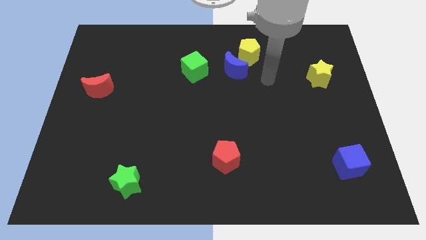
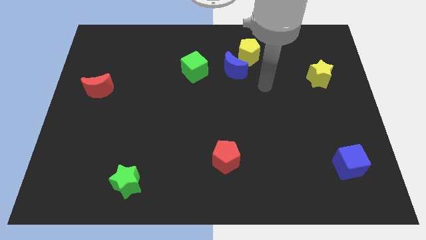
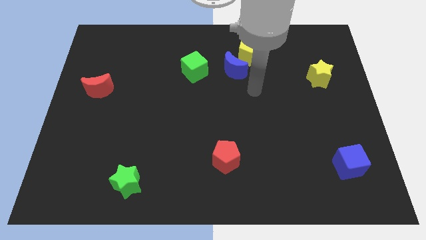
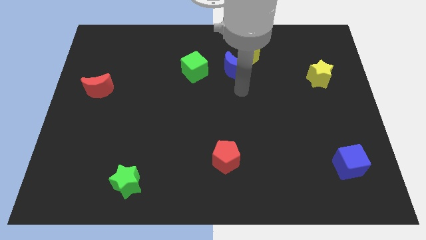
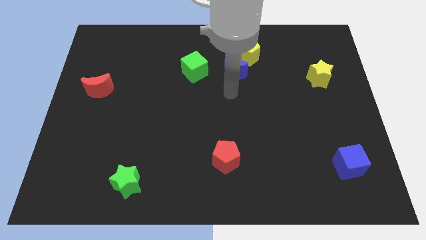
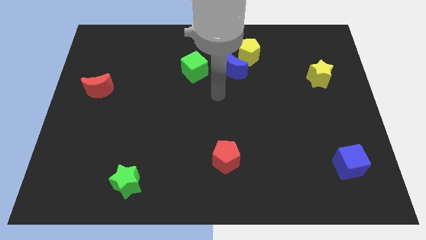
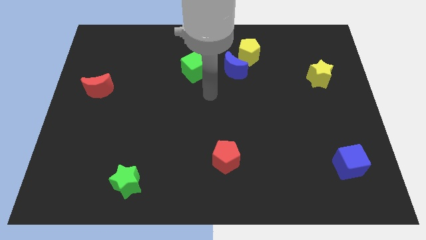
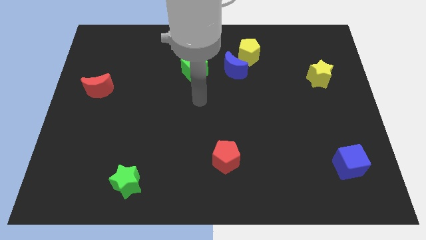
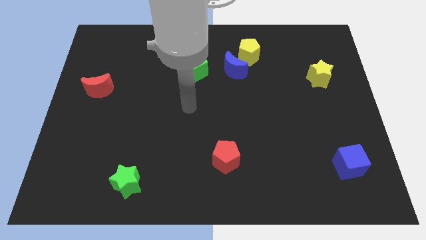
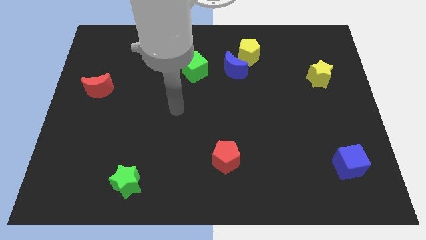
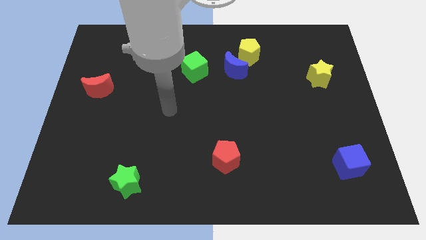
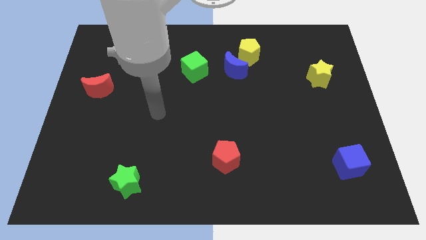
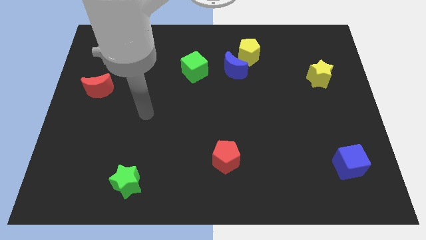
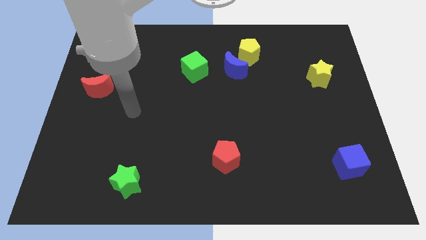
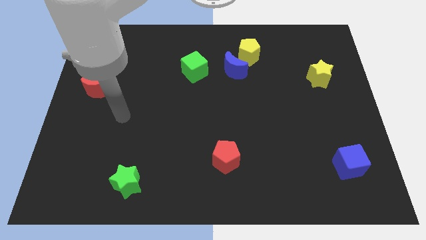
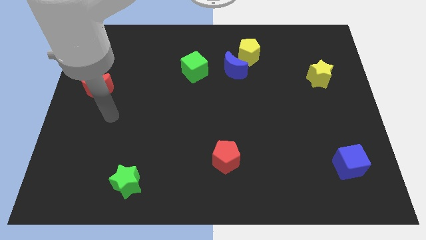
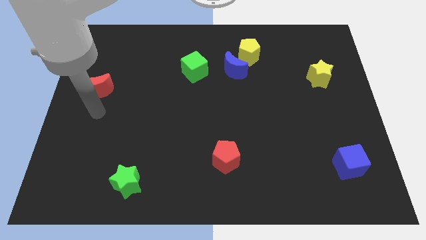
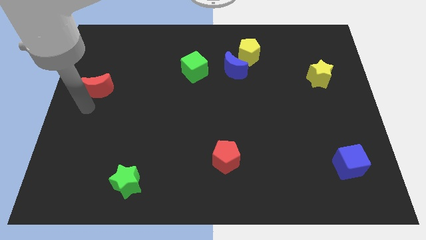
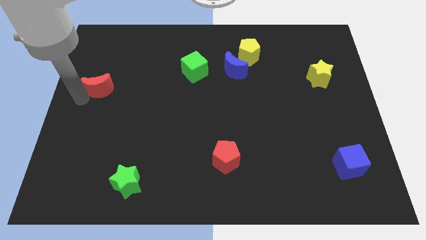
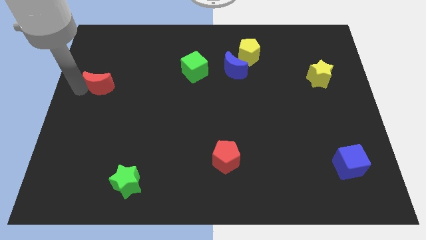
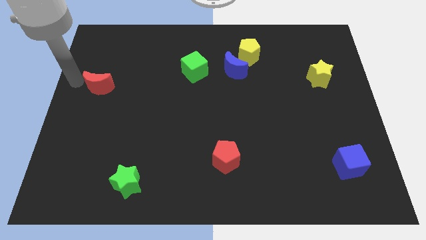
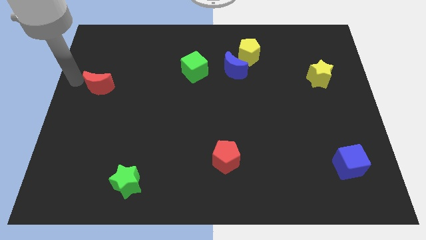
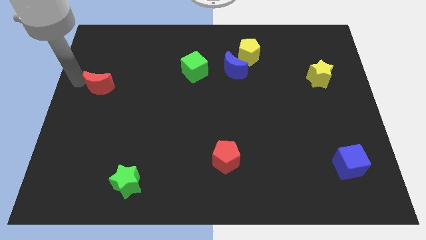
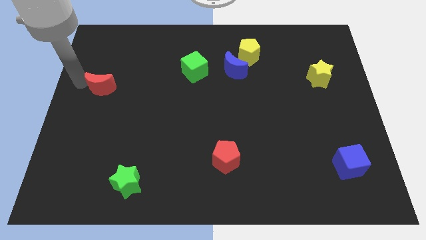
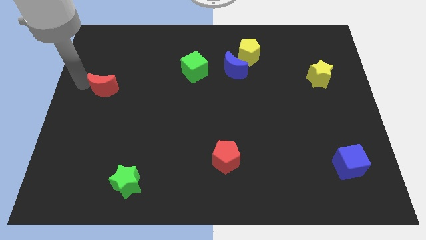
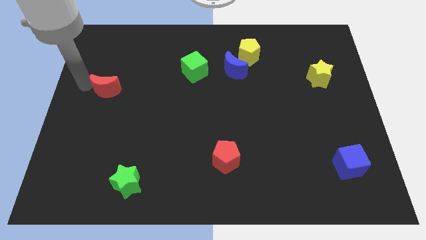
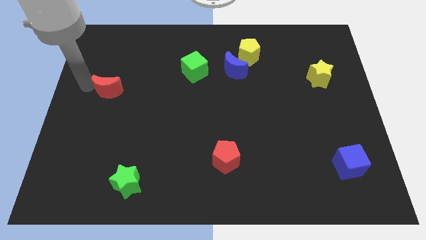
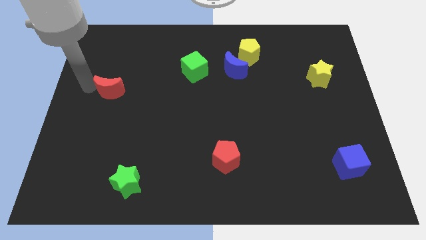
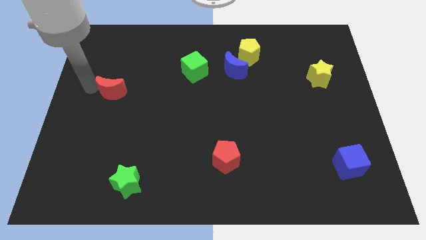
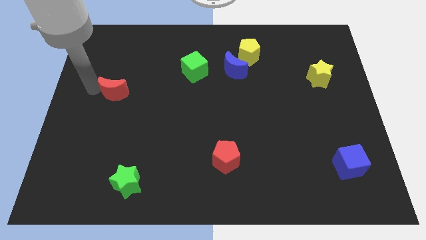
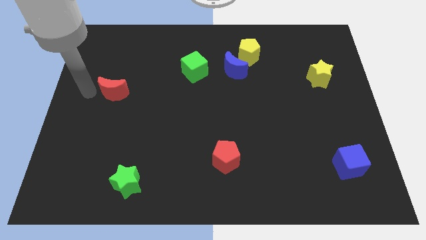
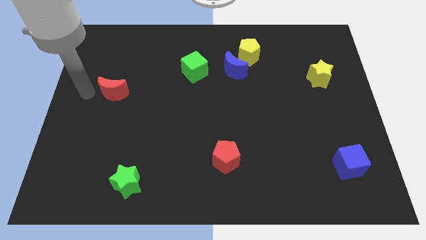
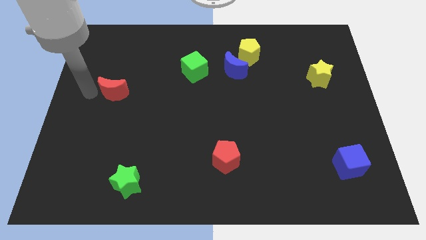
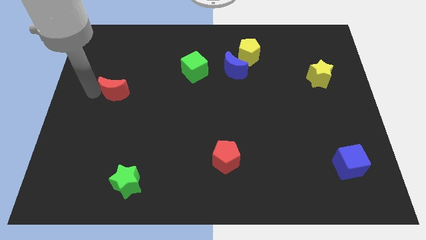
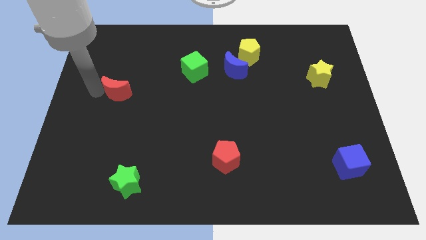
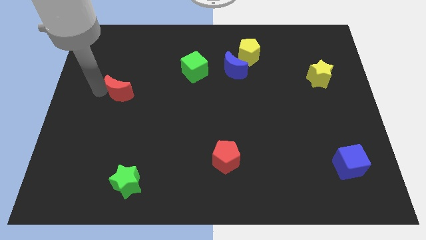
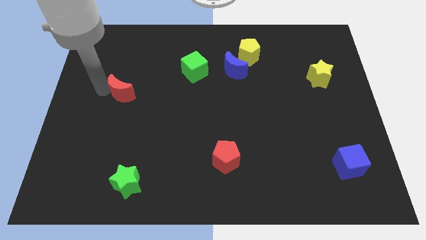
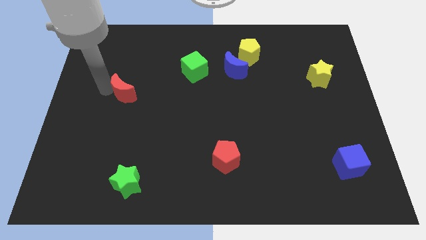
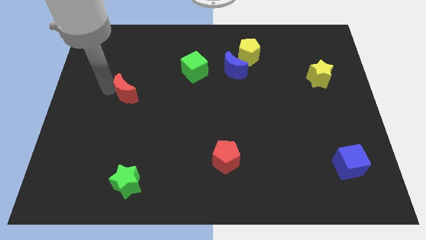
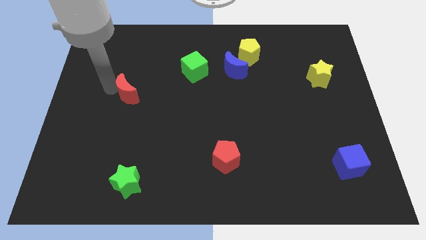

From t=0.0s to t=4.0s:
slightly slide the red moon to the right

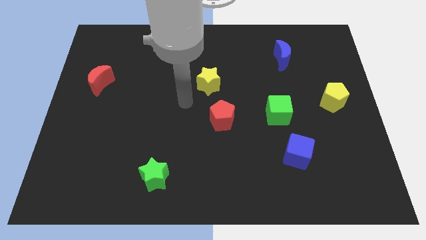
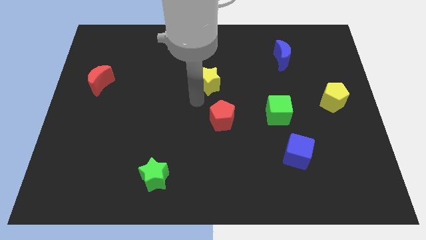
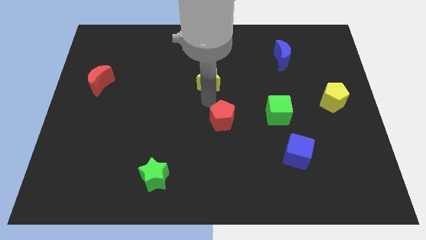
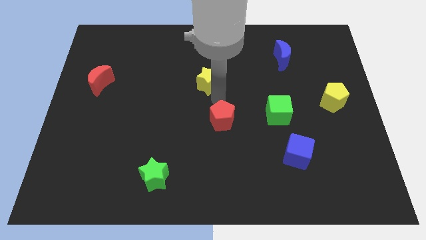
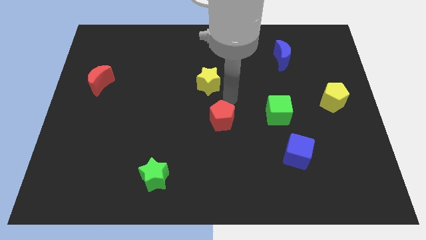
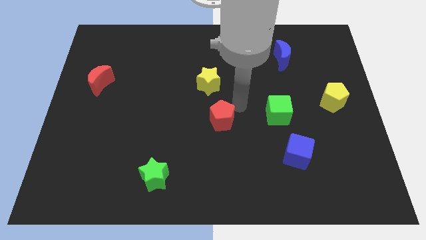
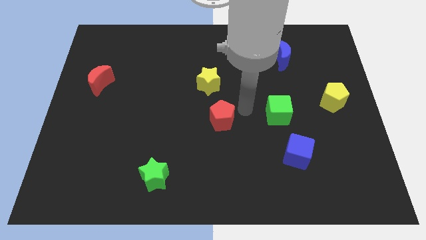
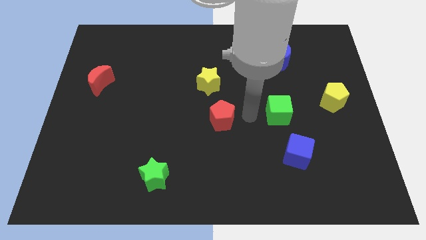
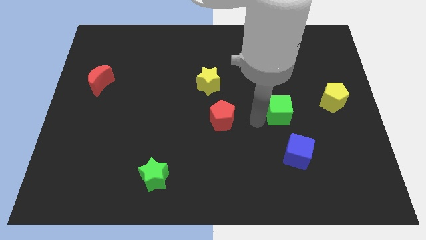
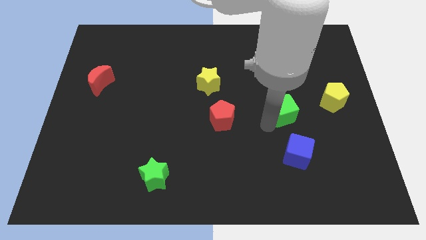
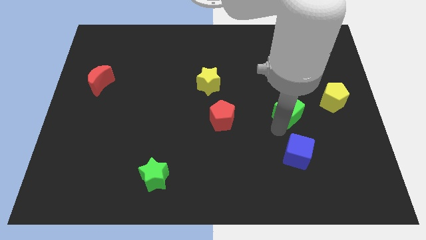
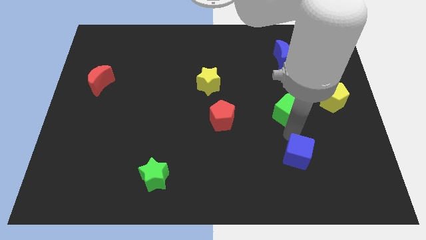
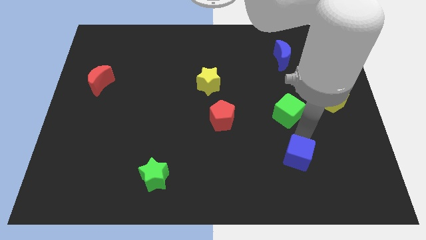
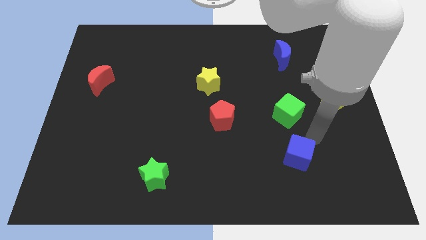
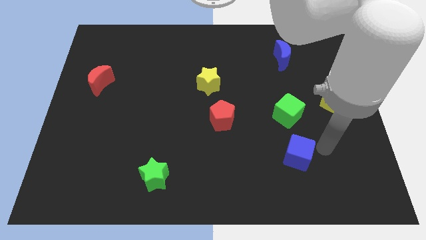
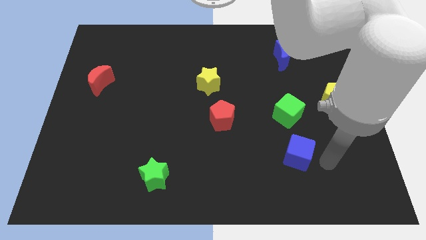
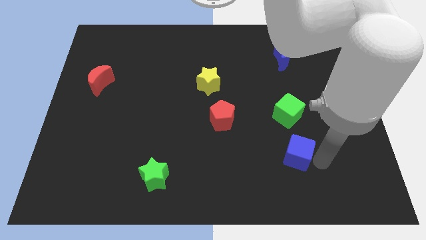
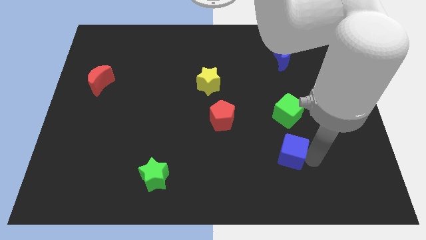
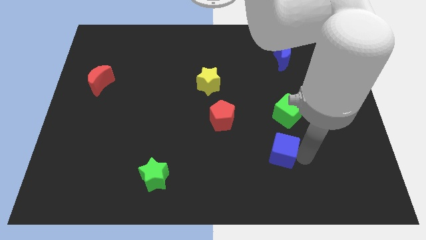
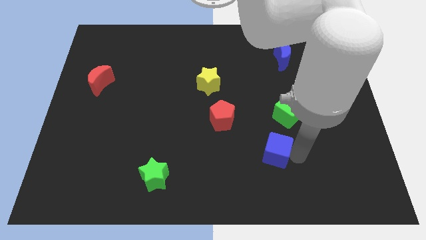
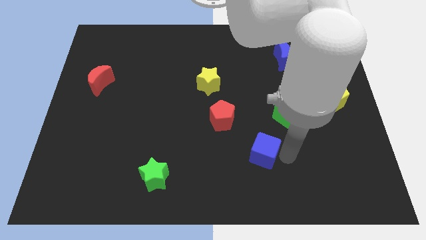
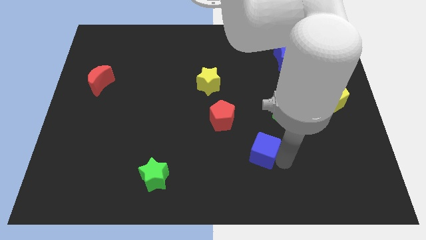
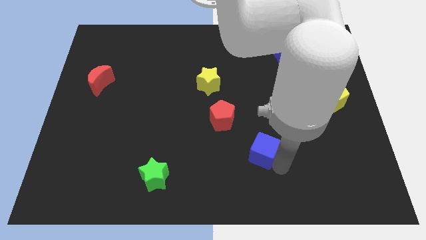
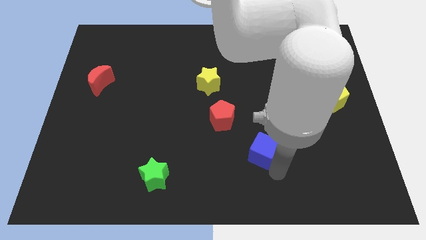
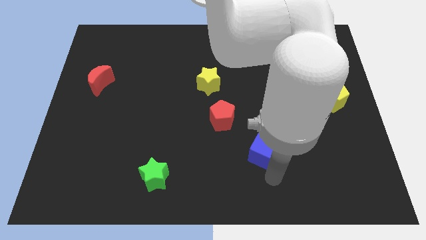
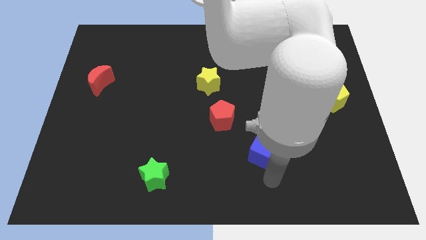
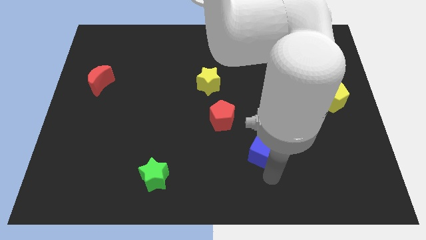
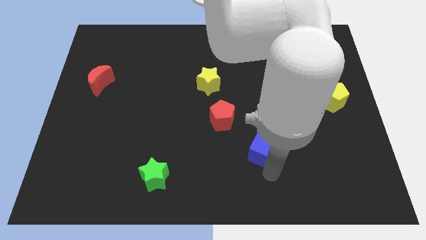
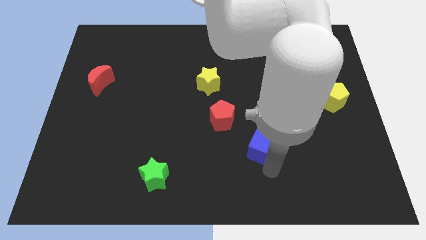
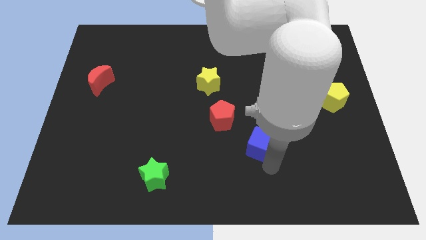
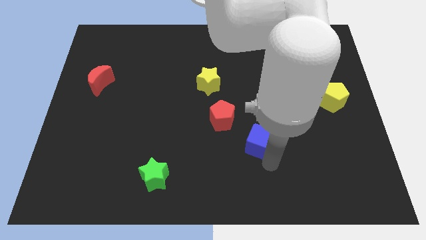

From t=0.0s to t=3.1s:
slightly push the blue cube up and left

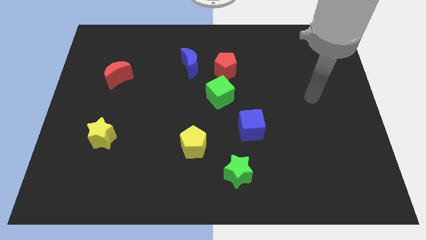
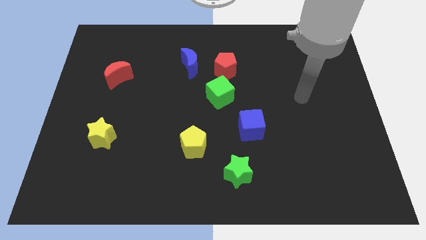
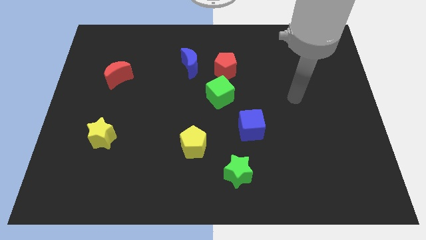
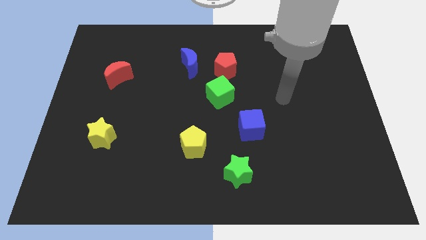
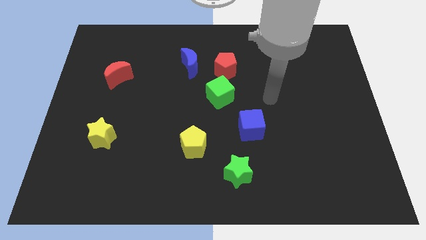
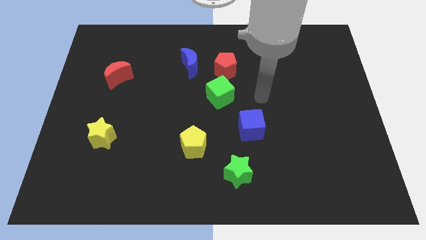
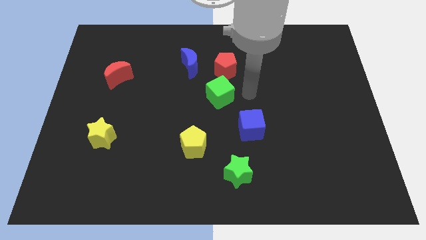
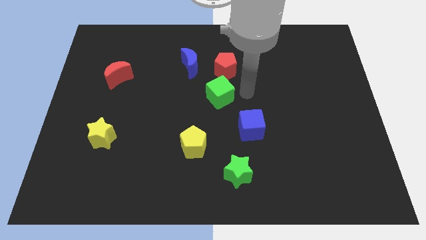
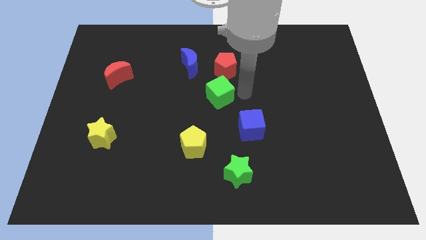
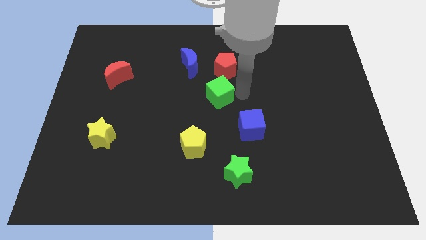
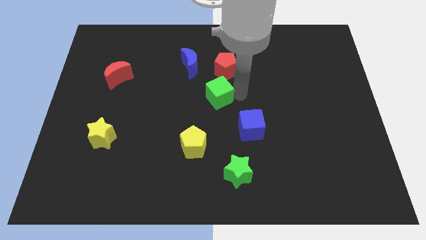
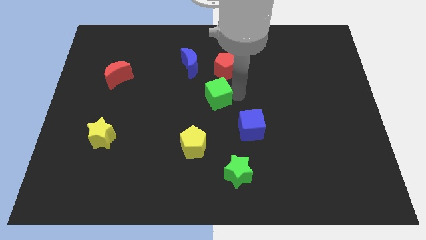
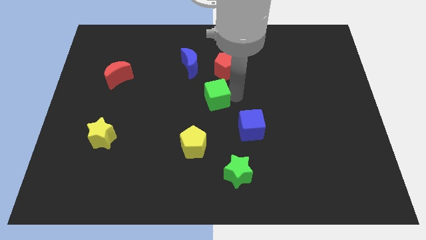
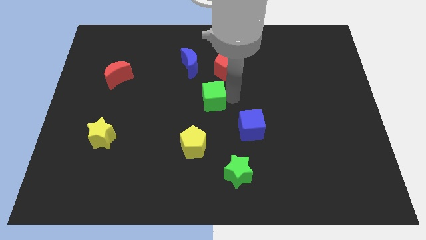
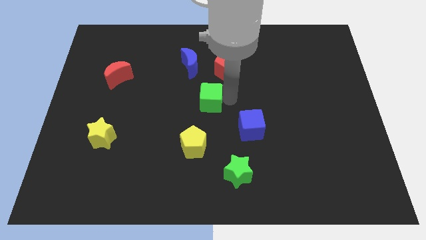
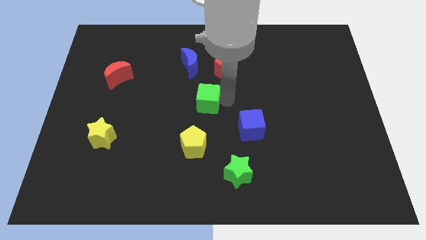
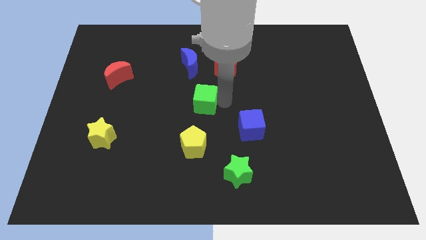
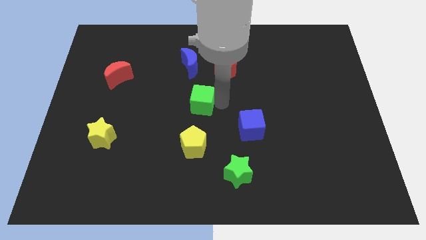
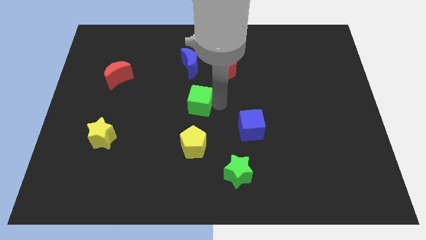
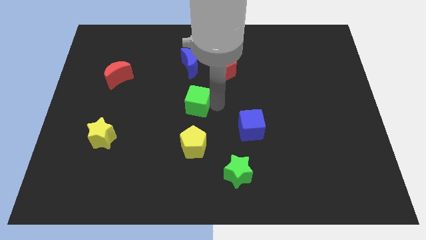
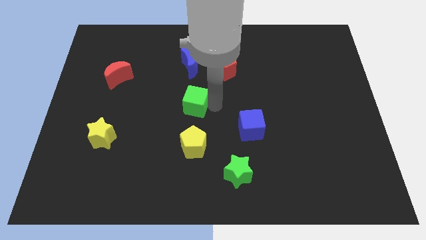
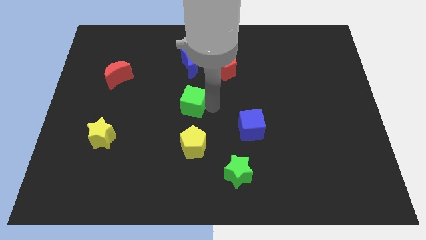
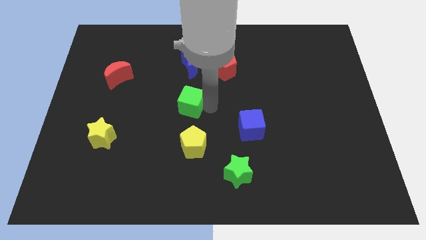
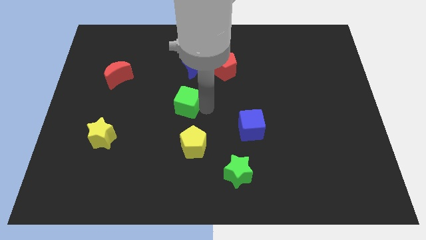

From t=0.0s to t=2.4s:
move the green cube left a little bit
